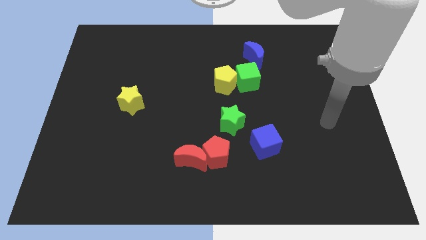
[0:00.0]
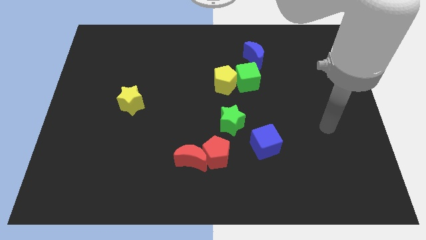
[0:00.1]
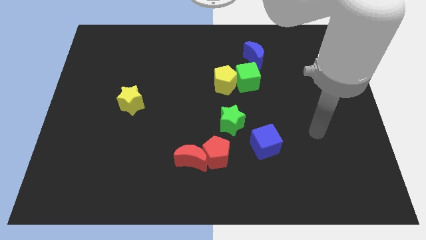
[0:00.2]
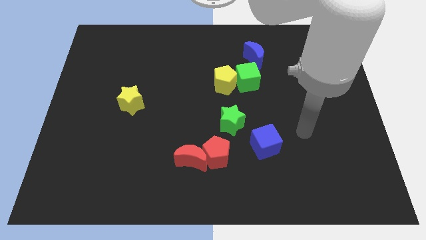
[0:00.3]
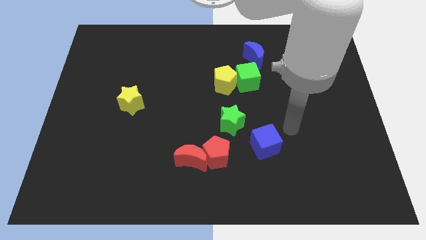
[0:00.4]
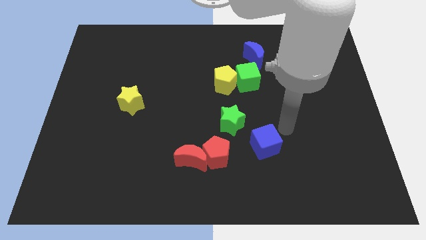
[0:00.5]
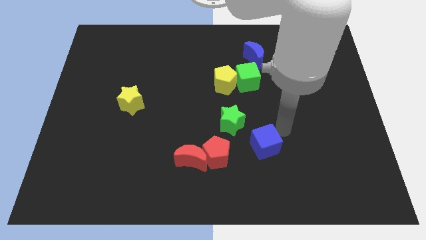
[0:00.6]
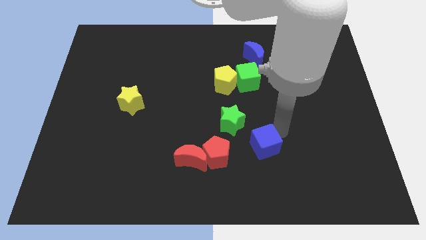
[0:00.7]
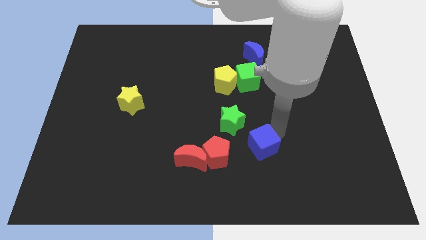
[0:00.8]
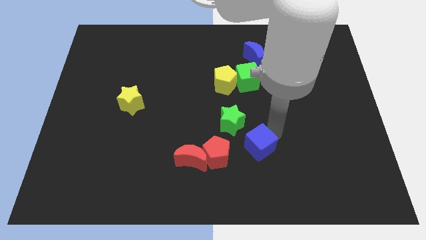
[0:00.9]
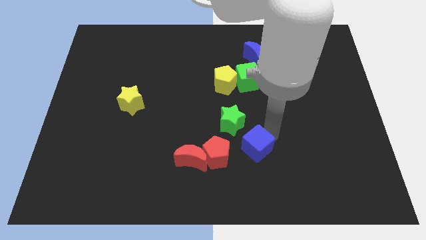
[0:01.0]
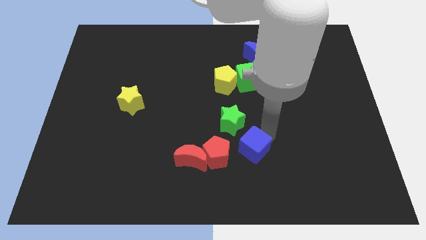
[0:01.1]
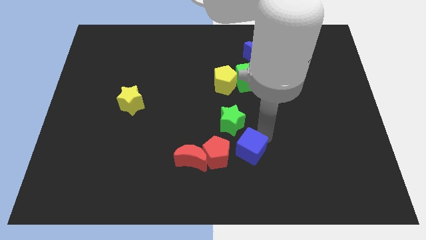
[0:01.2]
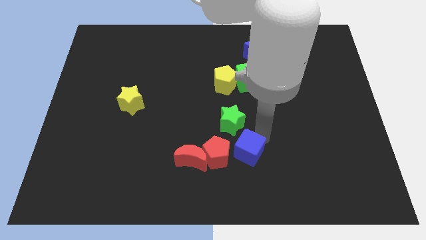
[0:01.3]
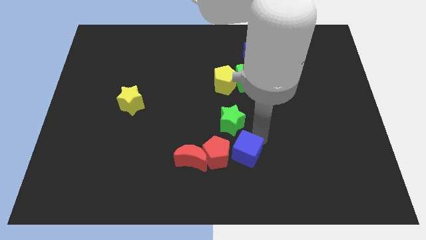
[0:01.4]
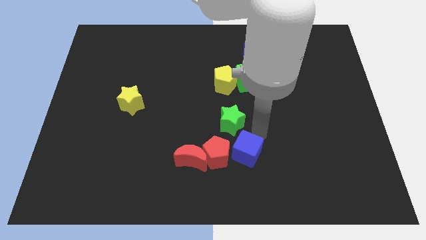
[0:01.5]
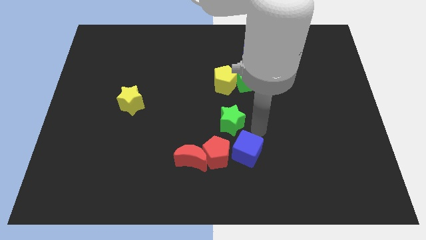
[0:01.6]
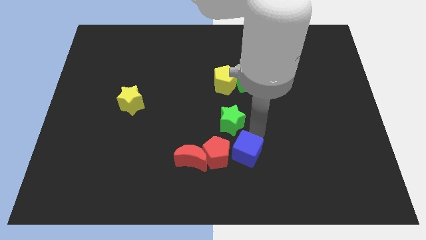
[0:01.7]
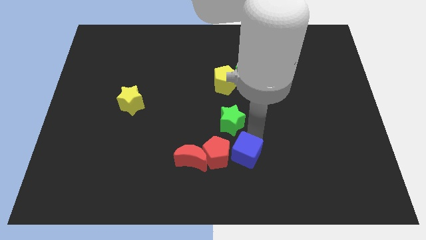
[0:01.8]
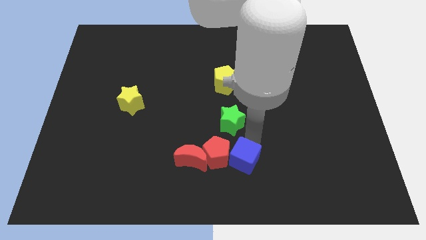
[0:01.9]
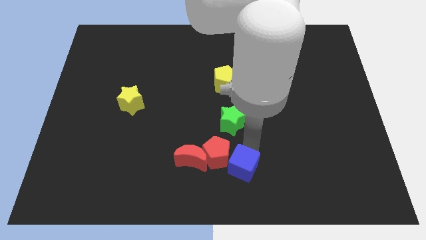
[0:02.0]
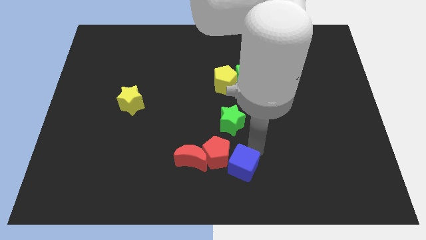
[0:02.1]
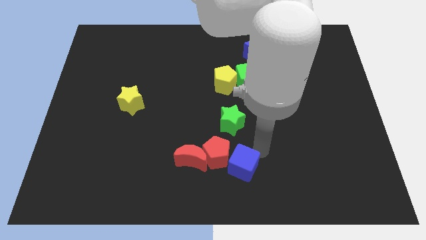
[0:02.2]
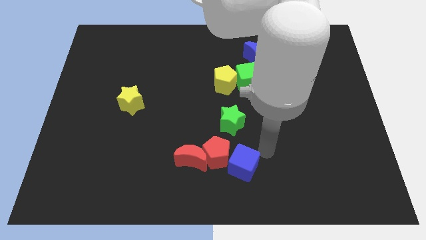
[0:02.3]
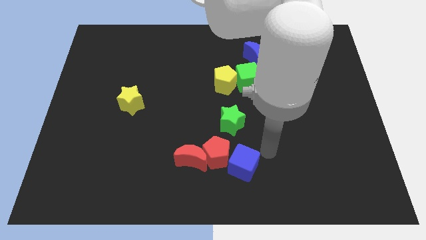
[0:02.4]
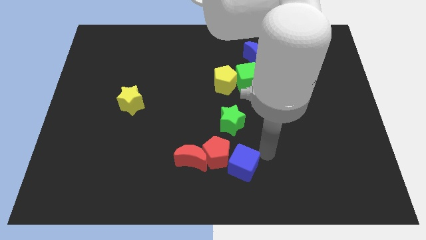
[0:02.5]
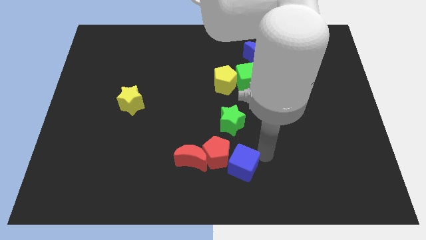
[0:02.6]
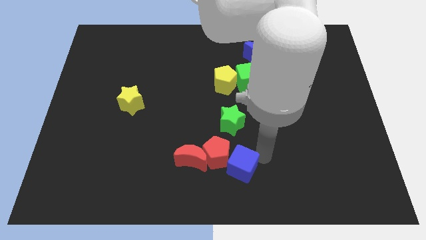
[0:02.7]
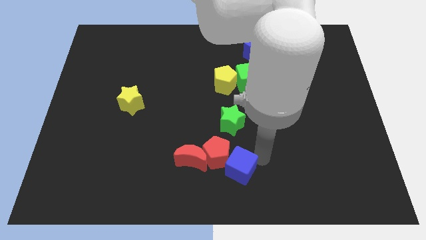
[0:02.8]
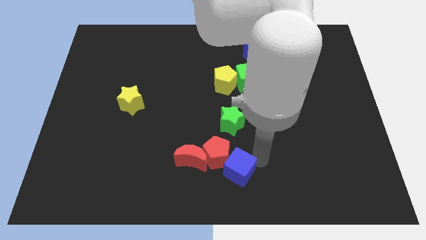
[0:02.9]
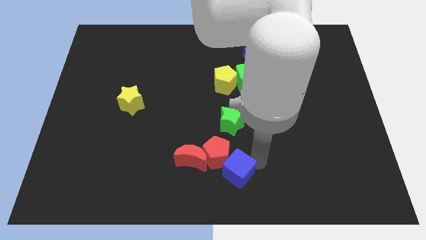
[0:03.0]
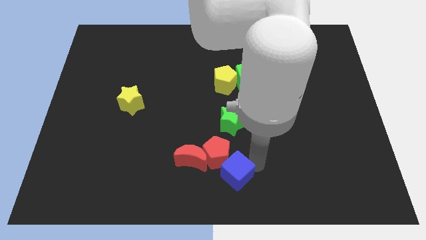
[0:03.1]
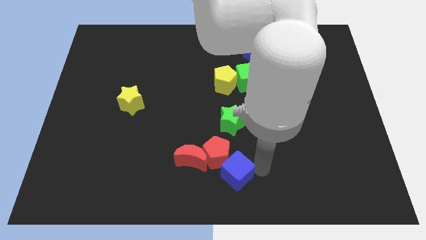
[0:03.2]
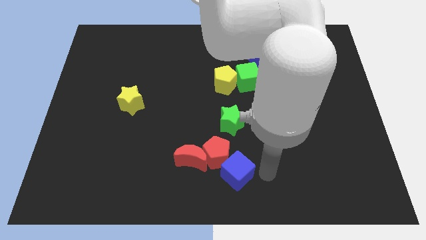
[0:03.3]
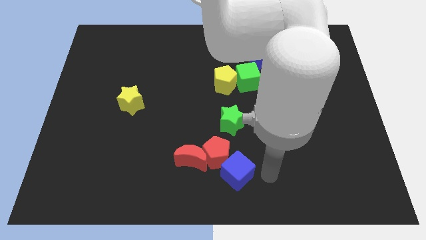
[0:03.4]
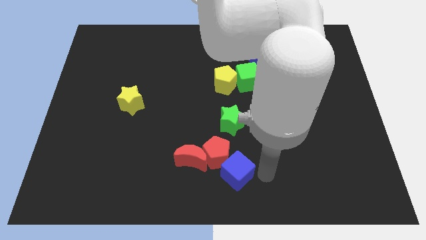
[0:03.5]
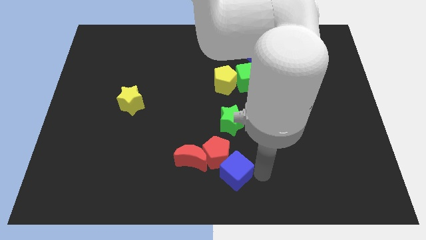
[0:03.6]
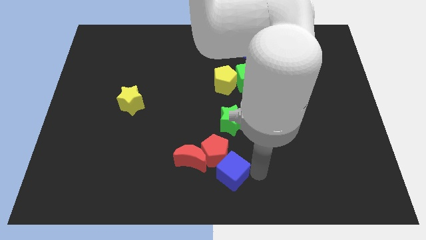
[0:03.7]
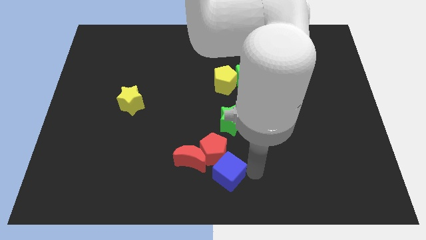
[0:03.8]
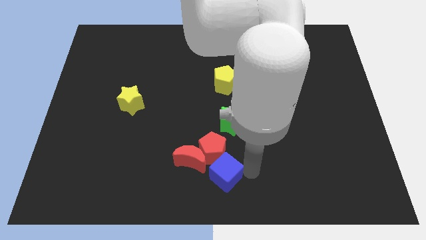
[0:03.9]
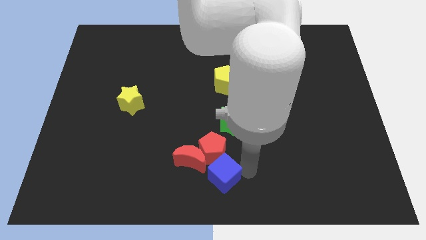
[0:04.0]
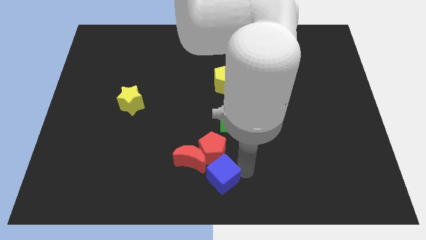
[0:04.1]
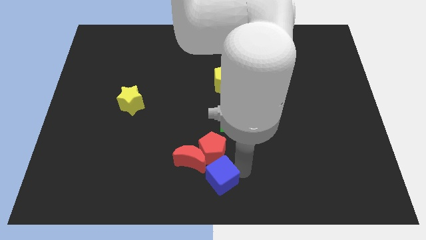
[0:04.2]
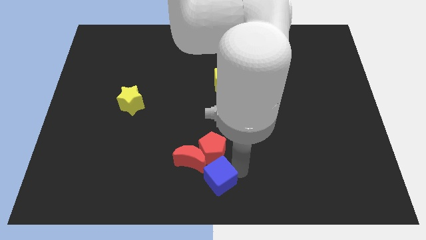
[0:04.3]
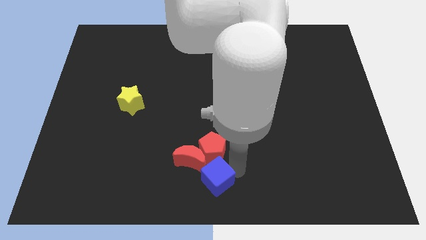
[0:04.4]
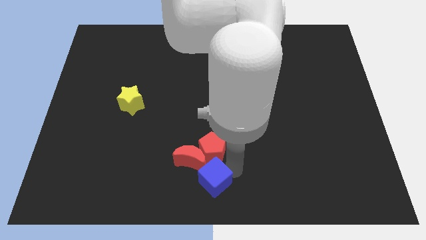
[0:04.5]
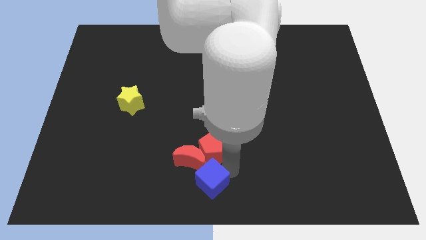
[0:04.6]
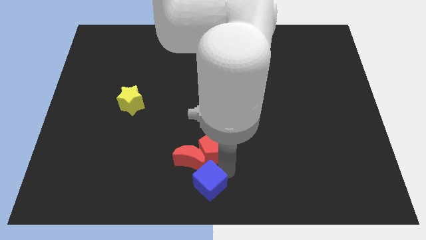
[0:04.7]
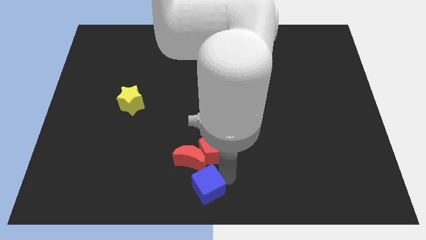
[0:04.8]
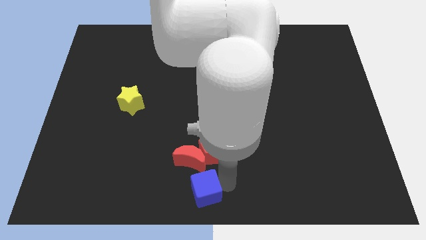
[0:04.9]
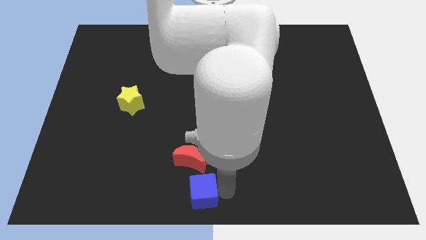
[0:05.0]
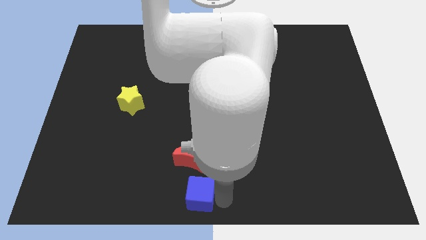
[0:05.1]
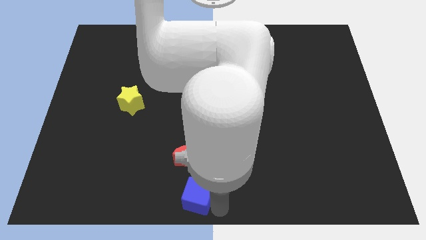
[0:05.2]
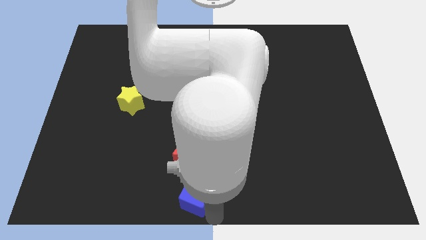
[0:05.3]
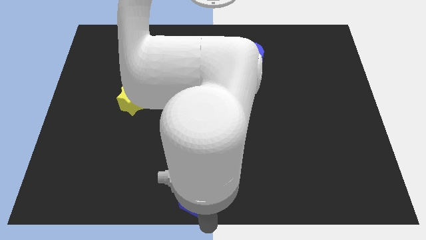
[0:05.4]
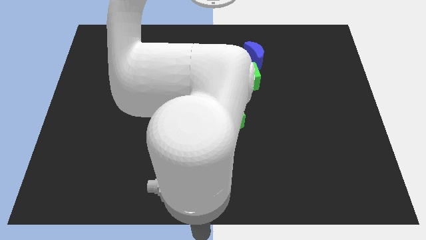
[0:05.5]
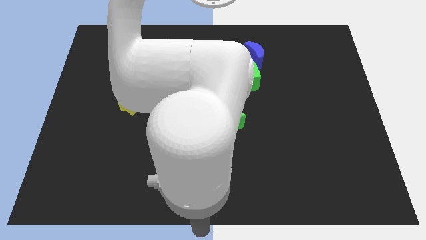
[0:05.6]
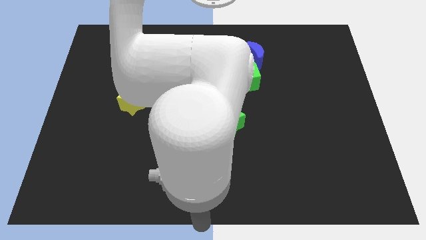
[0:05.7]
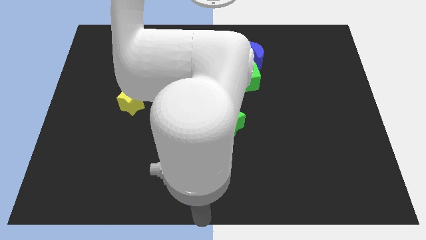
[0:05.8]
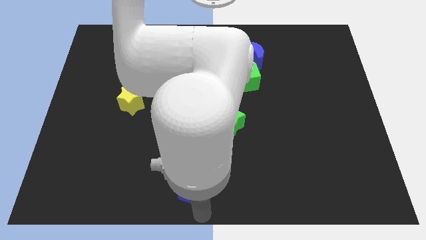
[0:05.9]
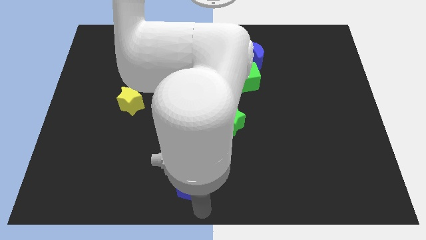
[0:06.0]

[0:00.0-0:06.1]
push the blue cube towards the red moon

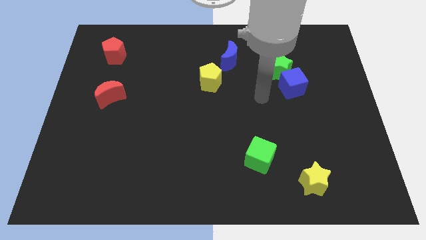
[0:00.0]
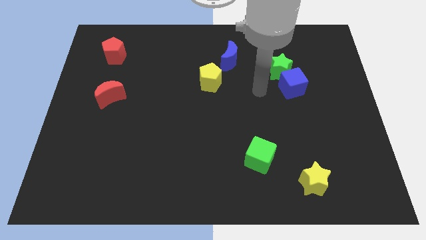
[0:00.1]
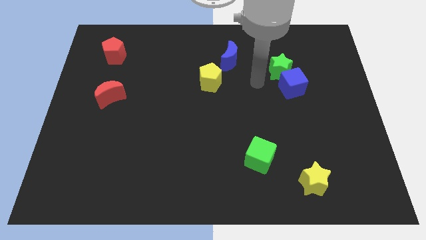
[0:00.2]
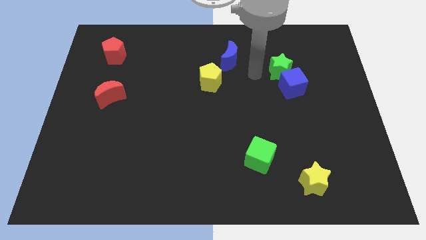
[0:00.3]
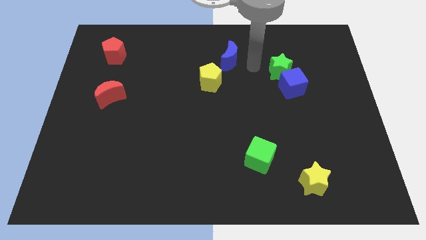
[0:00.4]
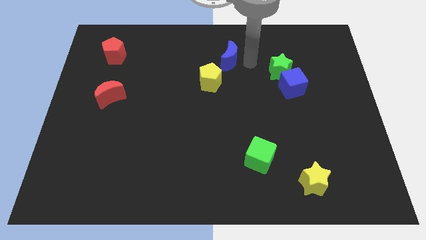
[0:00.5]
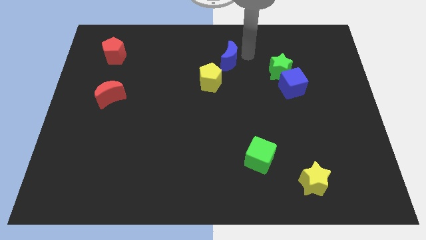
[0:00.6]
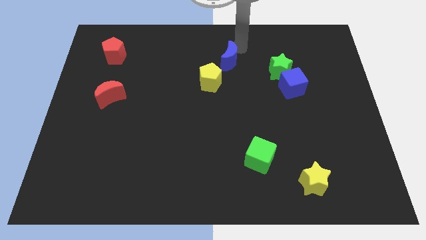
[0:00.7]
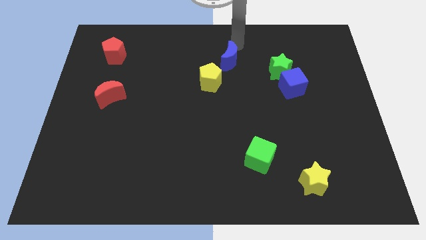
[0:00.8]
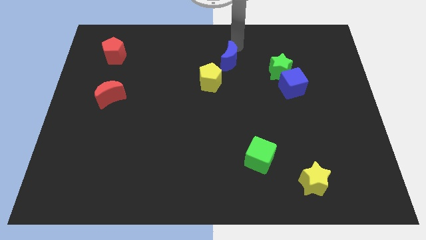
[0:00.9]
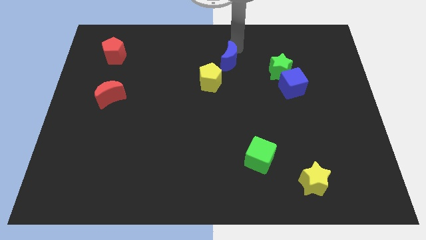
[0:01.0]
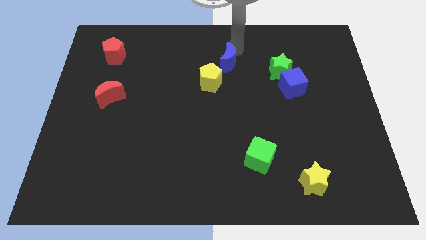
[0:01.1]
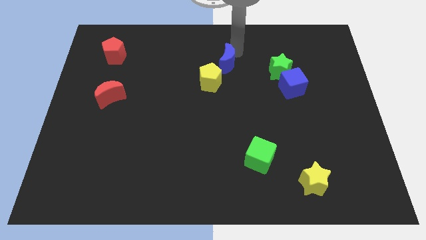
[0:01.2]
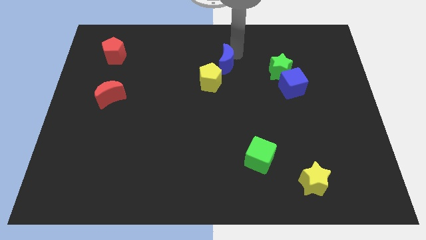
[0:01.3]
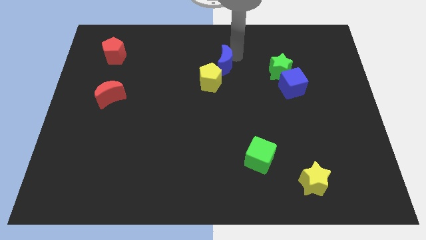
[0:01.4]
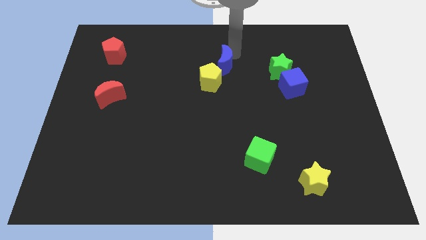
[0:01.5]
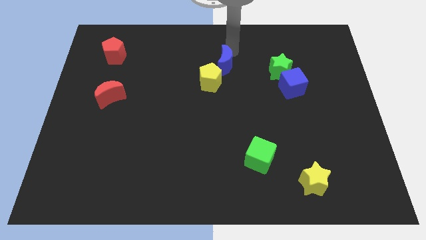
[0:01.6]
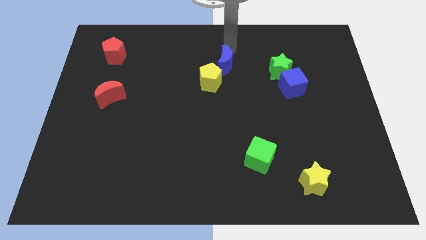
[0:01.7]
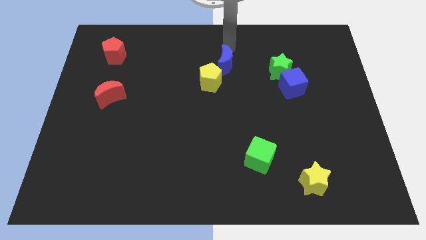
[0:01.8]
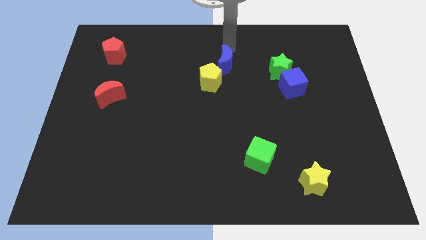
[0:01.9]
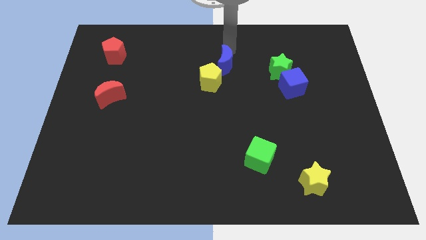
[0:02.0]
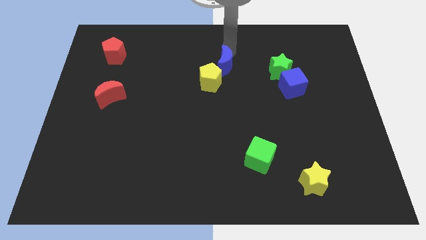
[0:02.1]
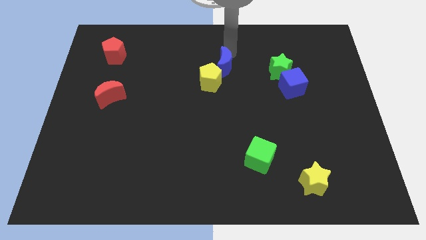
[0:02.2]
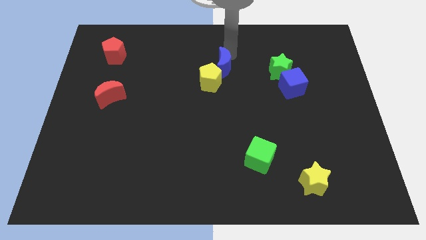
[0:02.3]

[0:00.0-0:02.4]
put the blue moon towards the yellow pentagon
